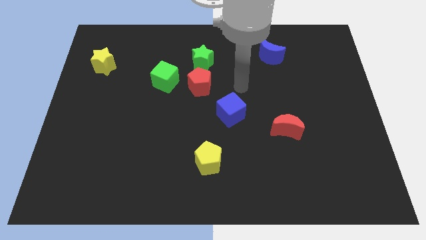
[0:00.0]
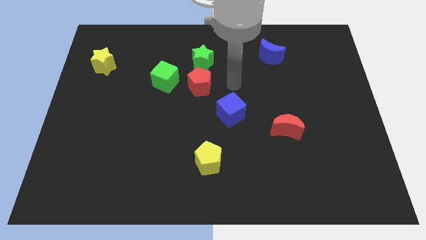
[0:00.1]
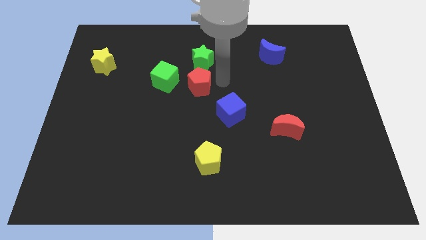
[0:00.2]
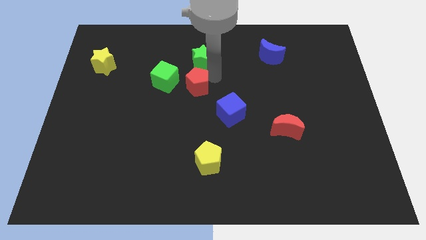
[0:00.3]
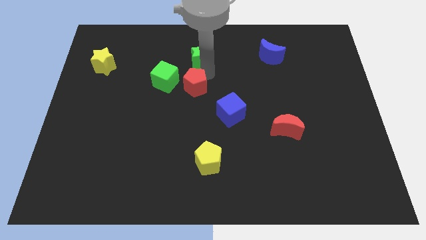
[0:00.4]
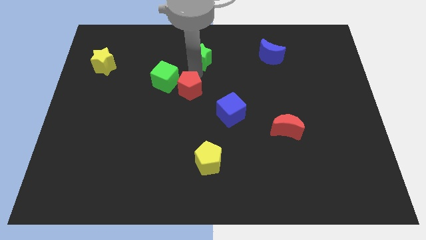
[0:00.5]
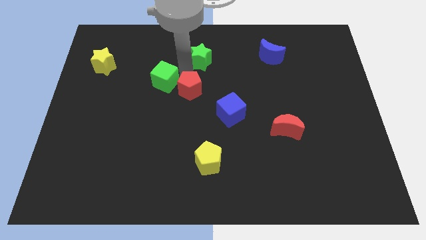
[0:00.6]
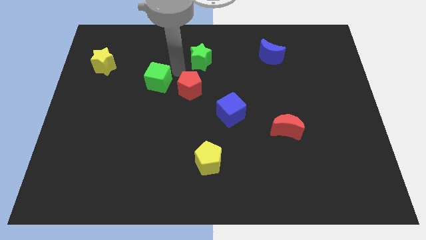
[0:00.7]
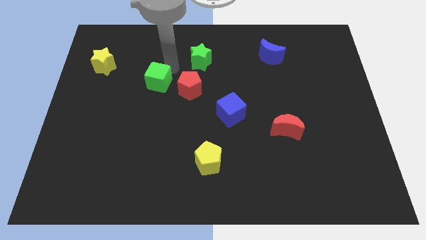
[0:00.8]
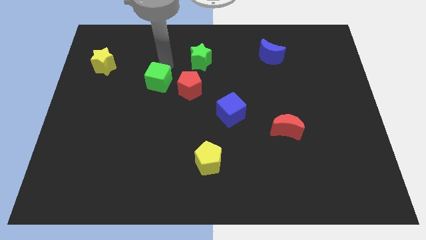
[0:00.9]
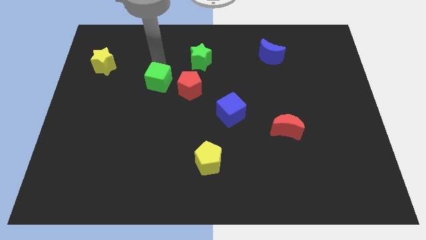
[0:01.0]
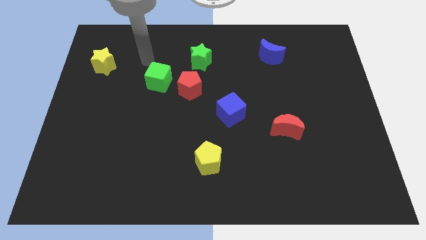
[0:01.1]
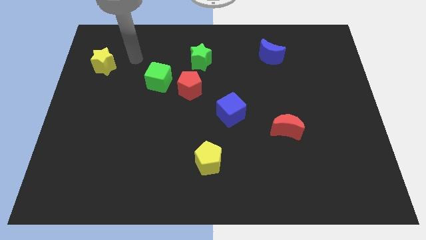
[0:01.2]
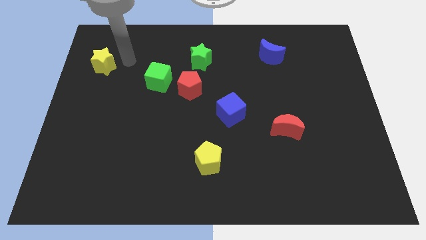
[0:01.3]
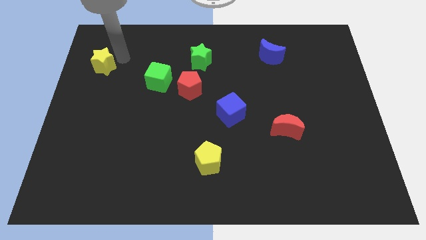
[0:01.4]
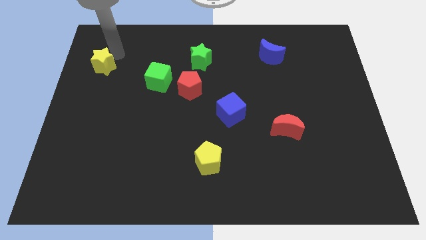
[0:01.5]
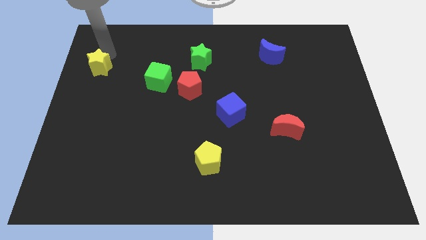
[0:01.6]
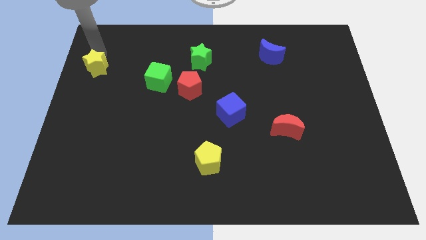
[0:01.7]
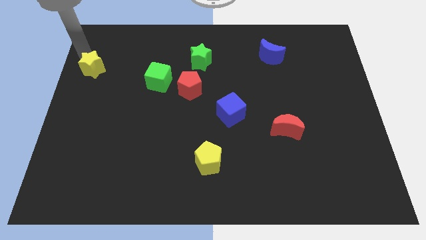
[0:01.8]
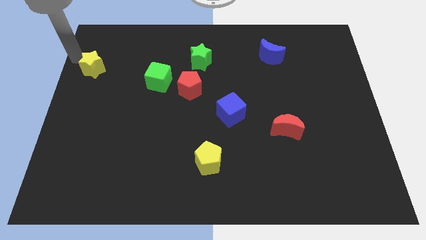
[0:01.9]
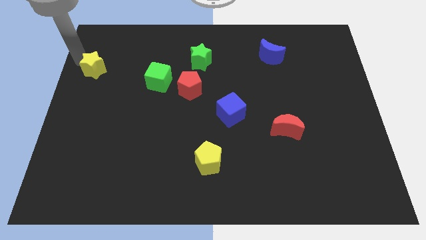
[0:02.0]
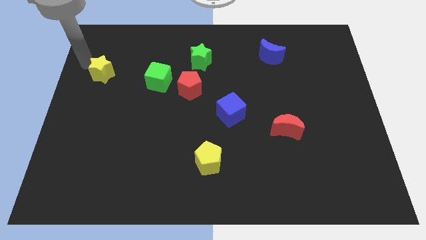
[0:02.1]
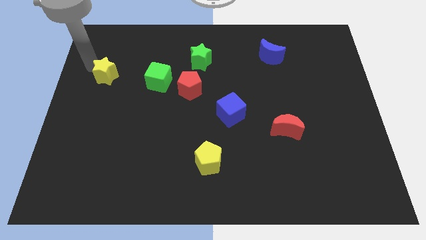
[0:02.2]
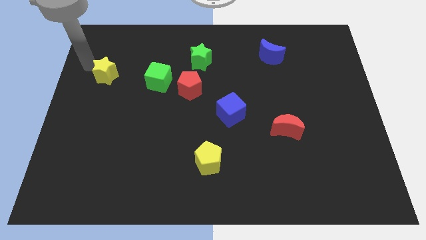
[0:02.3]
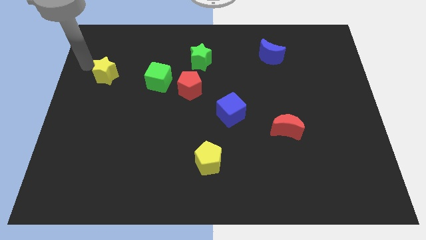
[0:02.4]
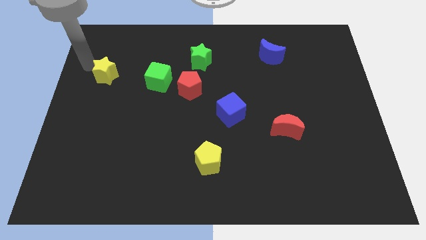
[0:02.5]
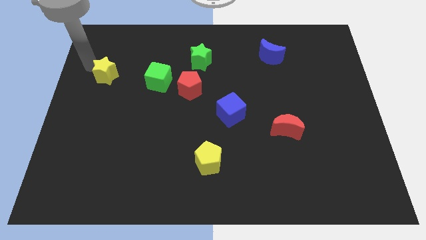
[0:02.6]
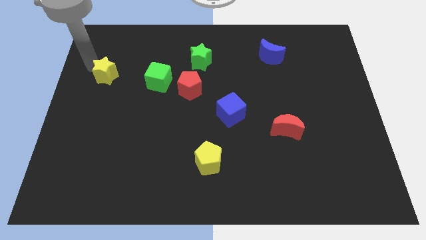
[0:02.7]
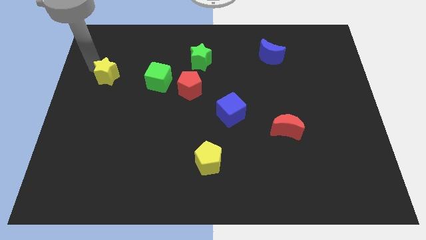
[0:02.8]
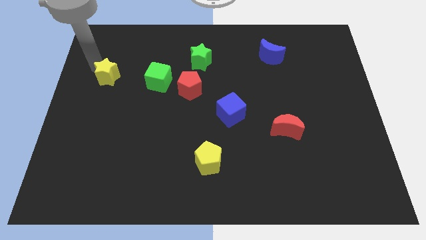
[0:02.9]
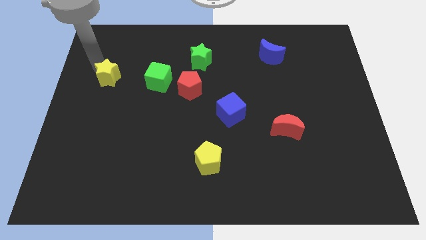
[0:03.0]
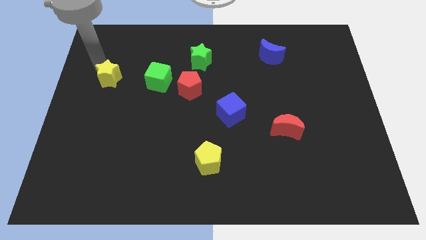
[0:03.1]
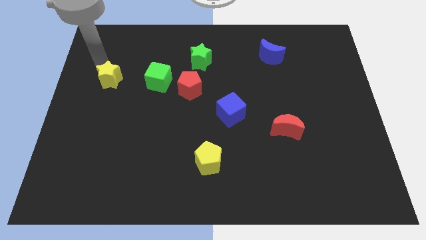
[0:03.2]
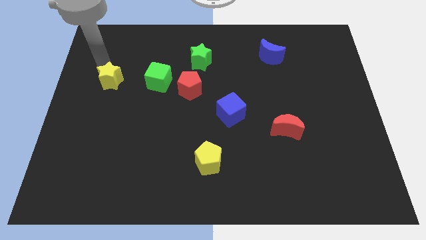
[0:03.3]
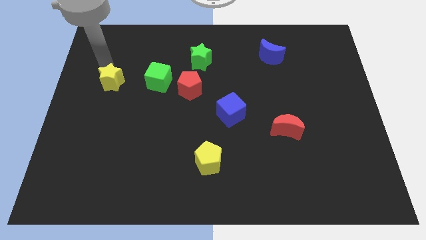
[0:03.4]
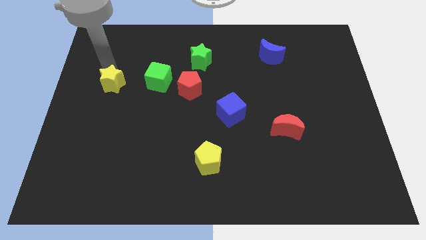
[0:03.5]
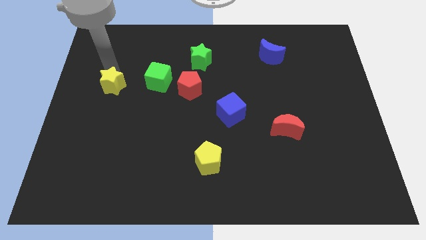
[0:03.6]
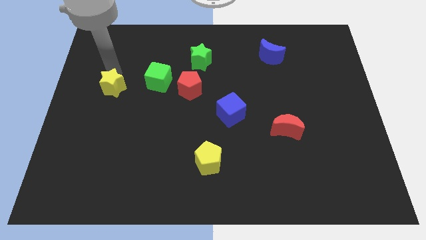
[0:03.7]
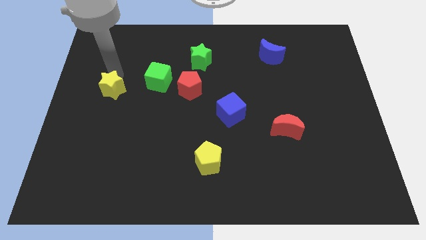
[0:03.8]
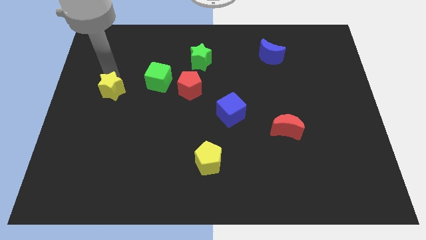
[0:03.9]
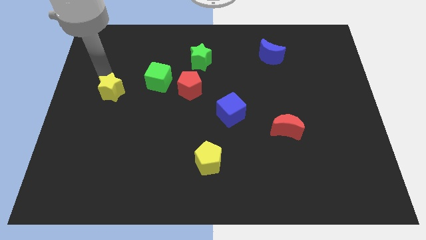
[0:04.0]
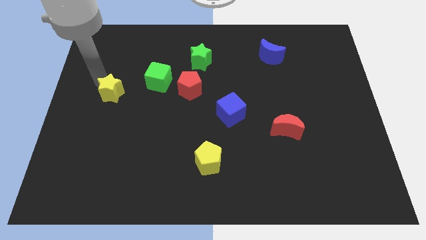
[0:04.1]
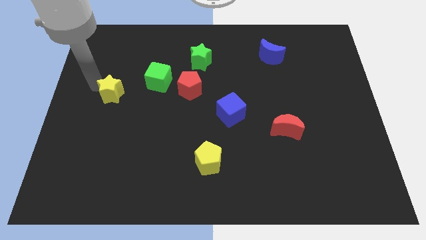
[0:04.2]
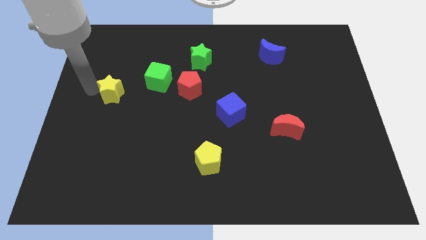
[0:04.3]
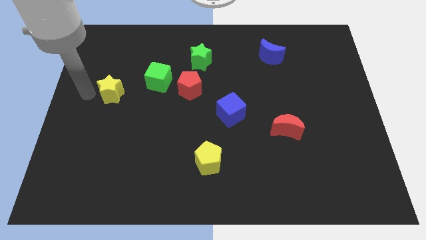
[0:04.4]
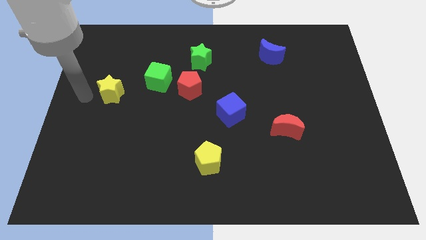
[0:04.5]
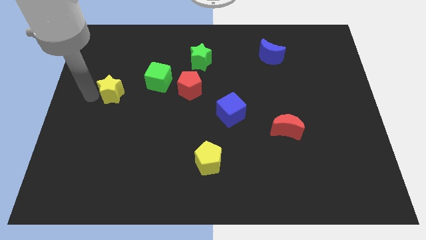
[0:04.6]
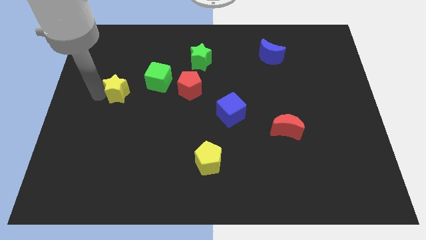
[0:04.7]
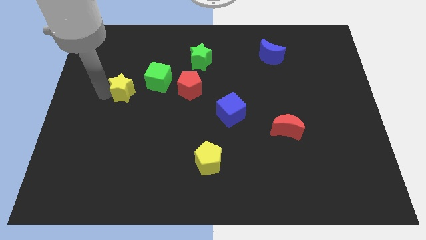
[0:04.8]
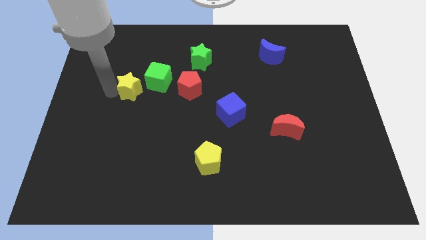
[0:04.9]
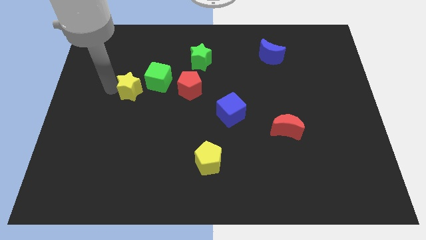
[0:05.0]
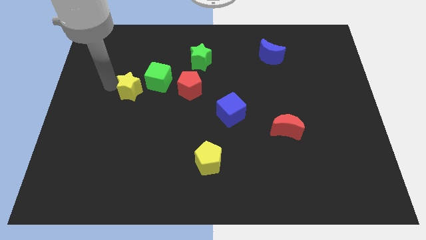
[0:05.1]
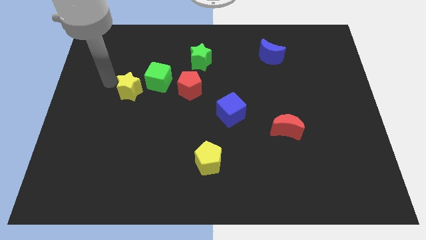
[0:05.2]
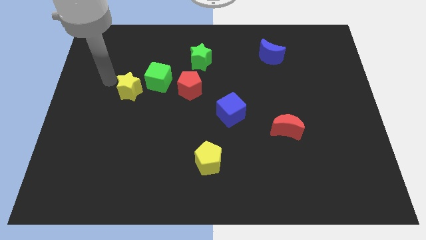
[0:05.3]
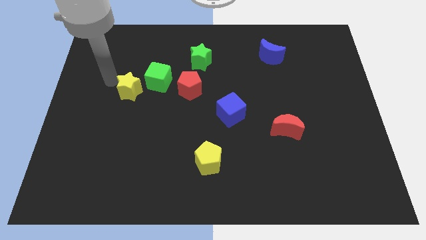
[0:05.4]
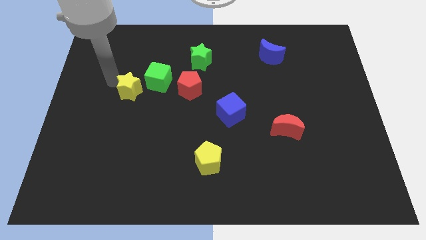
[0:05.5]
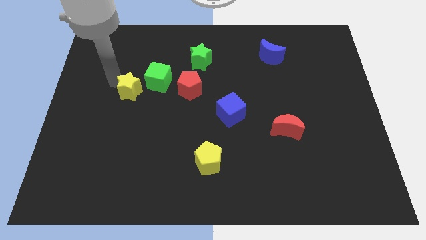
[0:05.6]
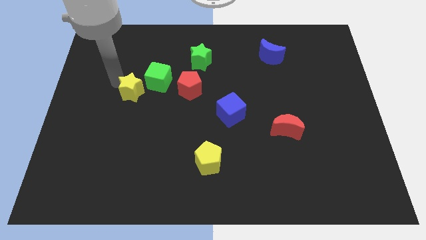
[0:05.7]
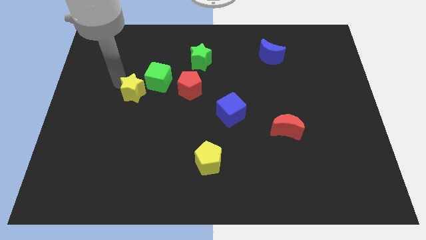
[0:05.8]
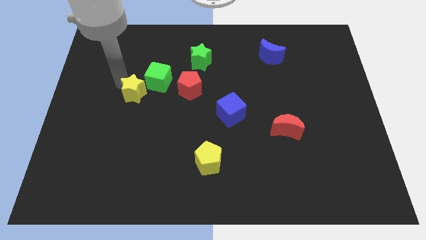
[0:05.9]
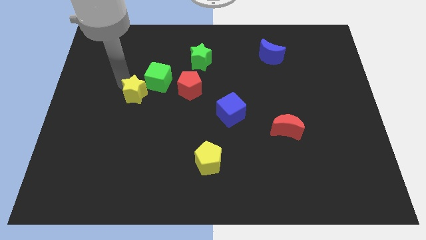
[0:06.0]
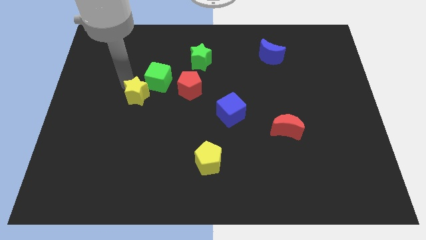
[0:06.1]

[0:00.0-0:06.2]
slide the yellow star to the bottom of the green cube
